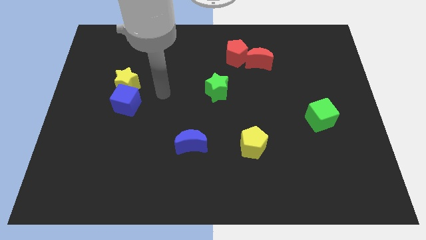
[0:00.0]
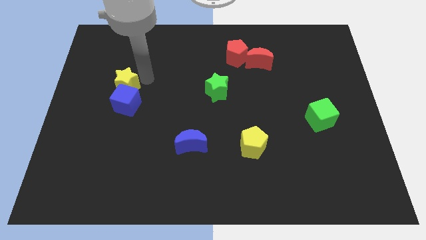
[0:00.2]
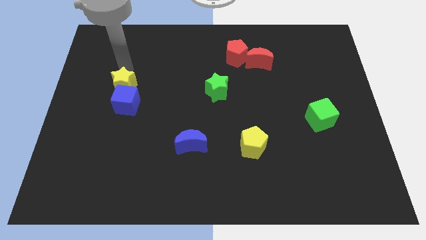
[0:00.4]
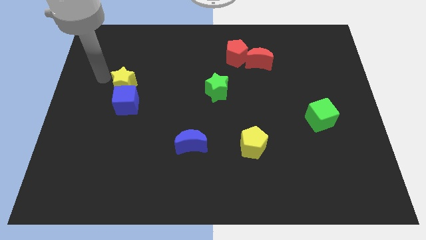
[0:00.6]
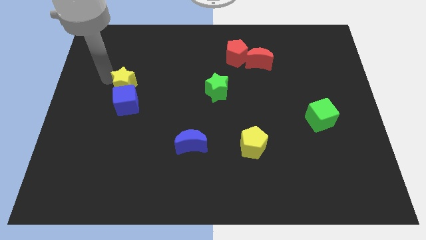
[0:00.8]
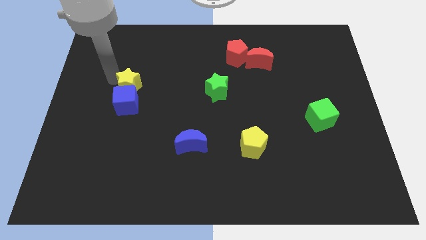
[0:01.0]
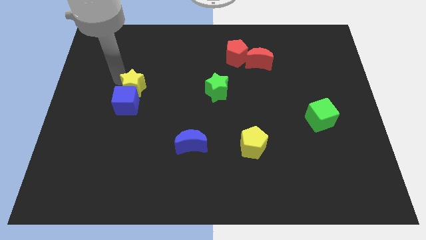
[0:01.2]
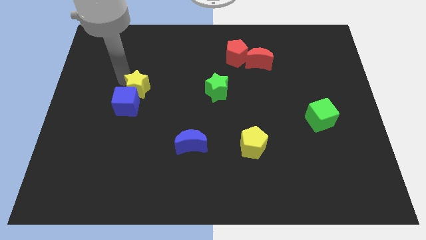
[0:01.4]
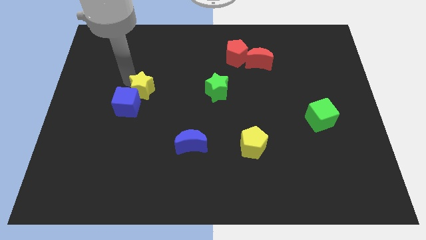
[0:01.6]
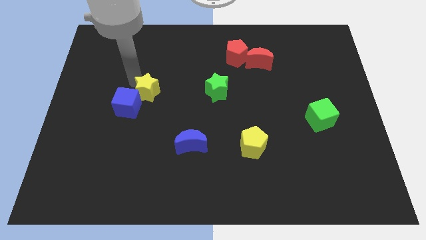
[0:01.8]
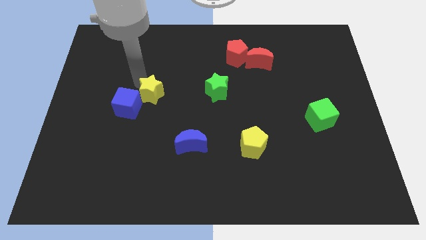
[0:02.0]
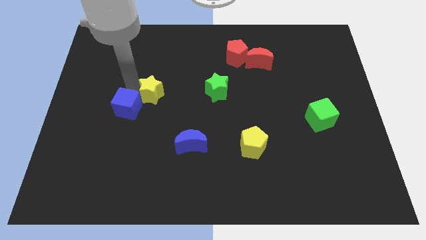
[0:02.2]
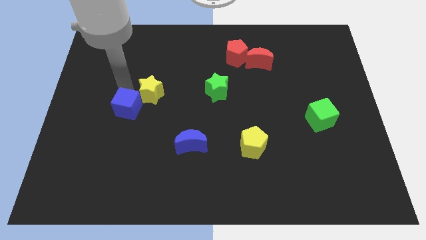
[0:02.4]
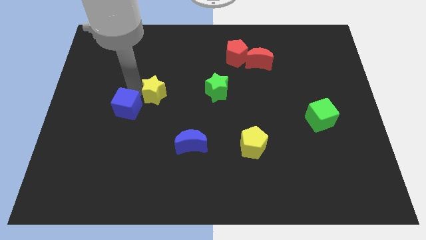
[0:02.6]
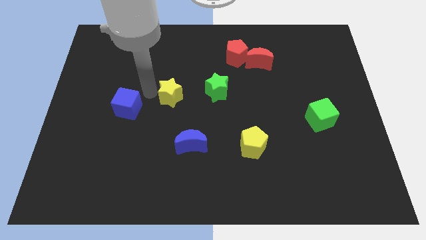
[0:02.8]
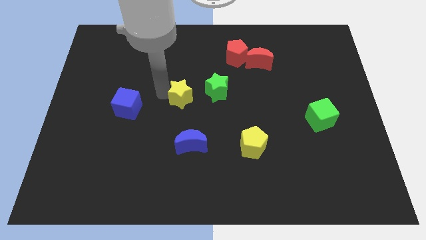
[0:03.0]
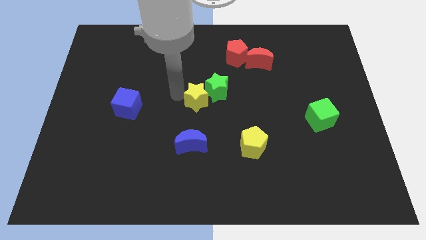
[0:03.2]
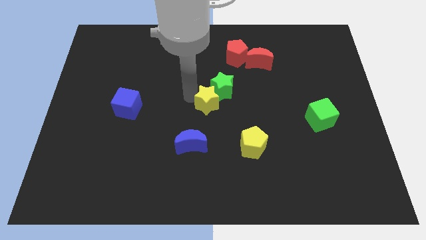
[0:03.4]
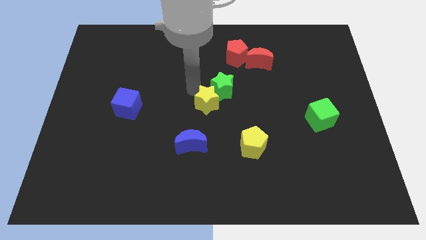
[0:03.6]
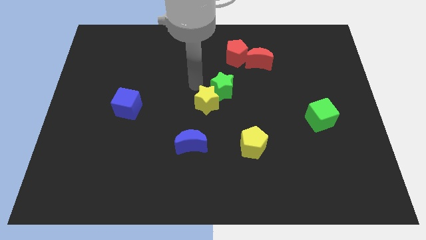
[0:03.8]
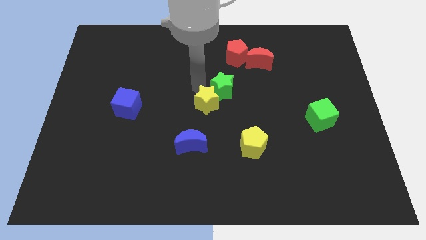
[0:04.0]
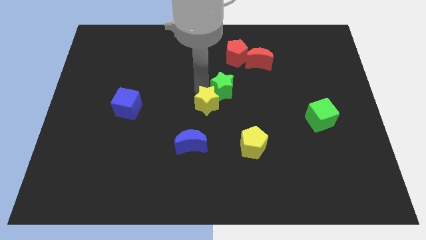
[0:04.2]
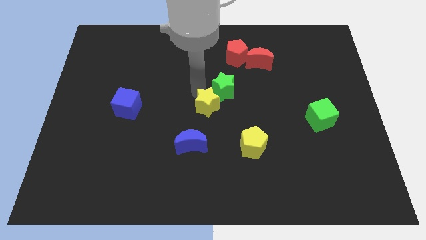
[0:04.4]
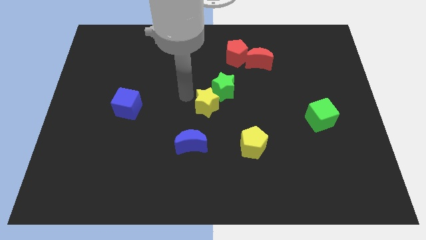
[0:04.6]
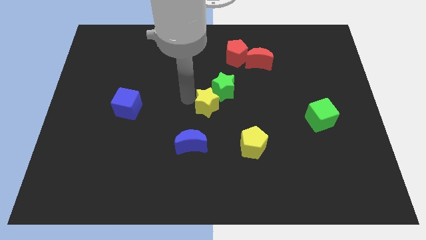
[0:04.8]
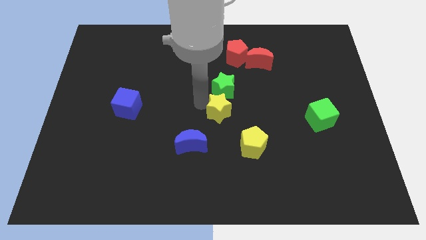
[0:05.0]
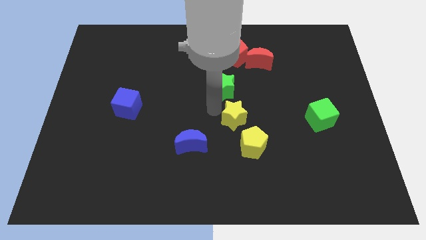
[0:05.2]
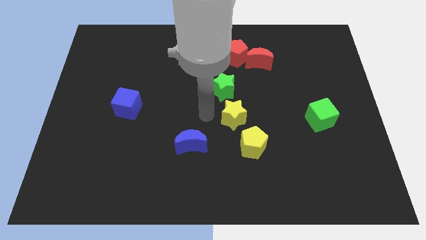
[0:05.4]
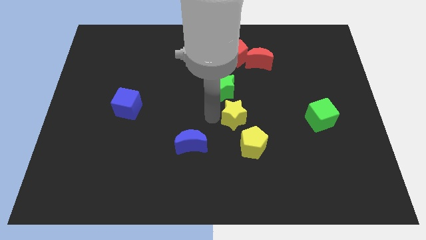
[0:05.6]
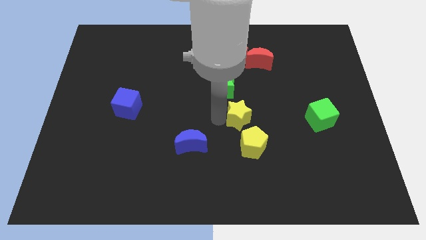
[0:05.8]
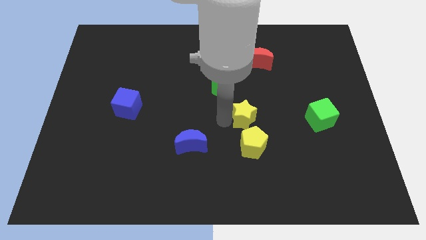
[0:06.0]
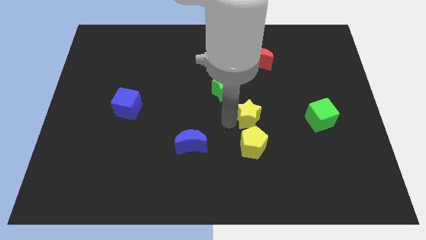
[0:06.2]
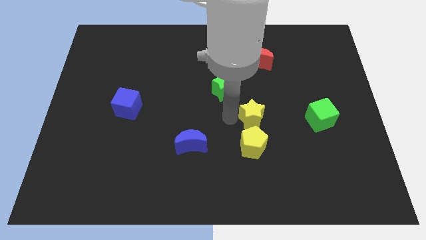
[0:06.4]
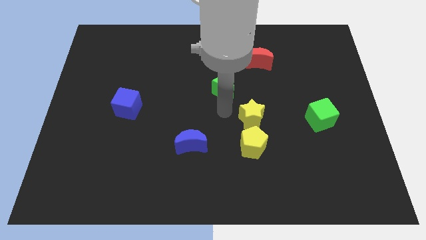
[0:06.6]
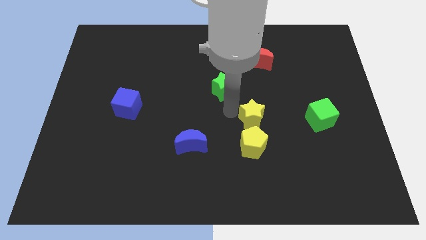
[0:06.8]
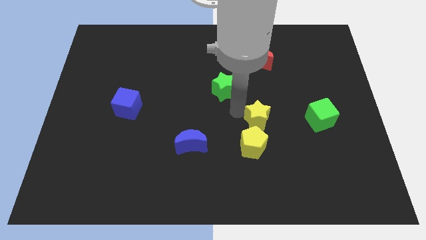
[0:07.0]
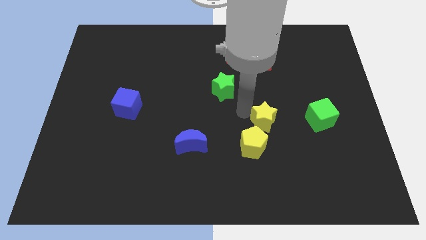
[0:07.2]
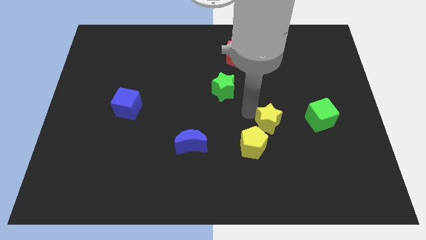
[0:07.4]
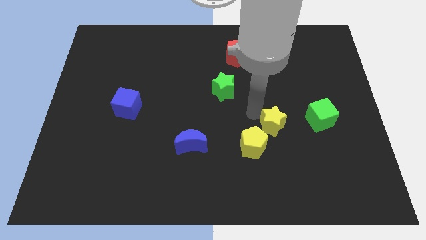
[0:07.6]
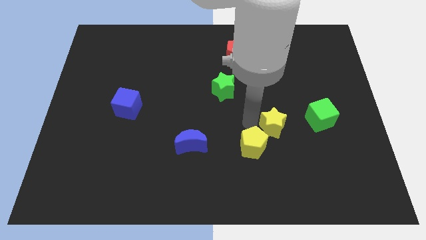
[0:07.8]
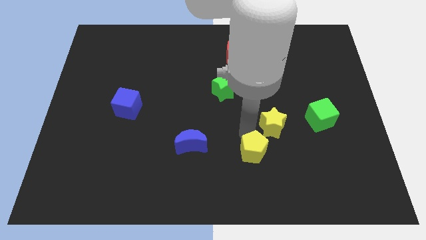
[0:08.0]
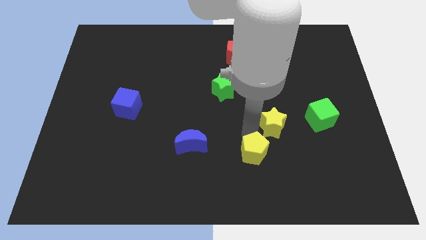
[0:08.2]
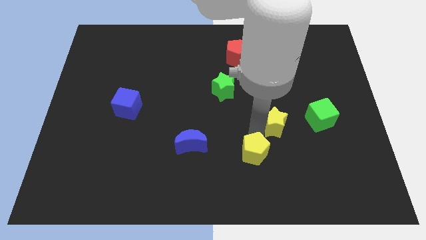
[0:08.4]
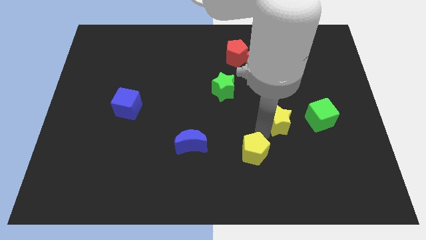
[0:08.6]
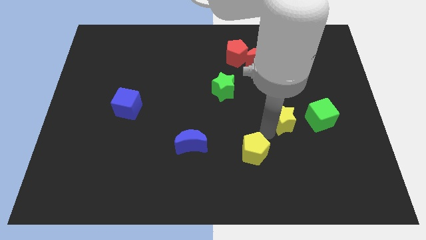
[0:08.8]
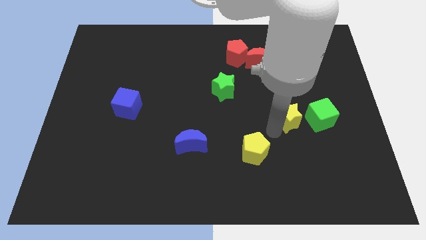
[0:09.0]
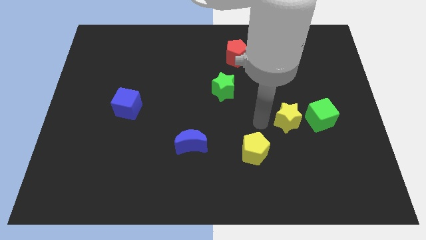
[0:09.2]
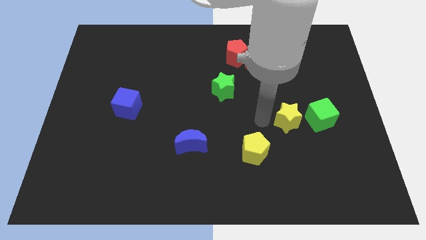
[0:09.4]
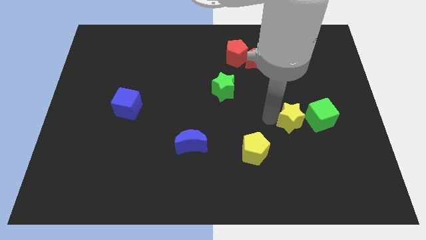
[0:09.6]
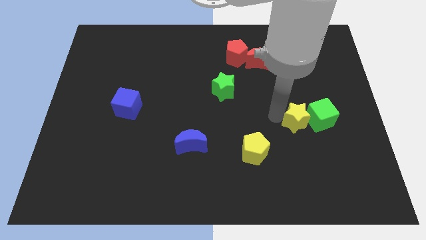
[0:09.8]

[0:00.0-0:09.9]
push the yellow star next to the green cube

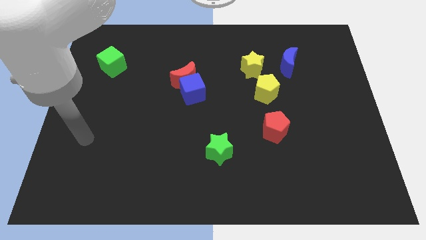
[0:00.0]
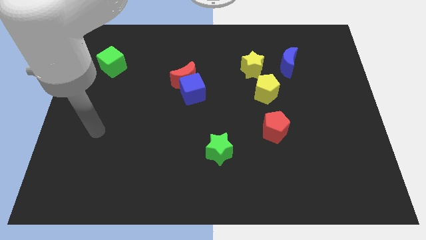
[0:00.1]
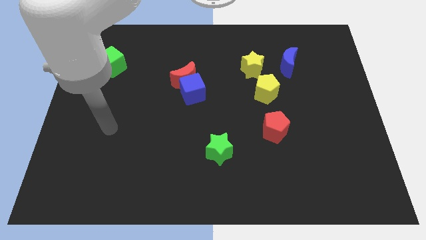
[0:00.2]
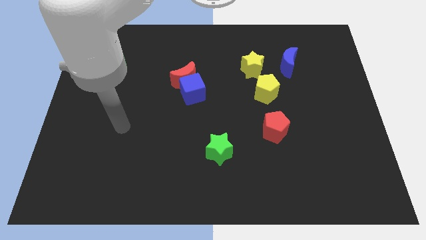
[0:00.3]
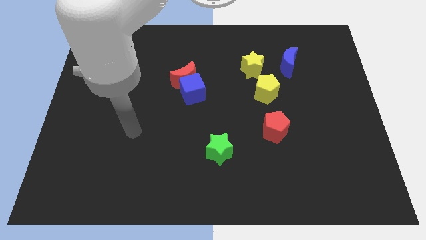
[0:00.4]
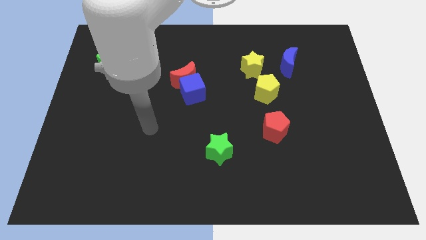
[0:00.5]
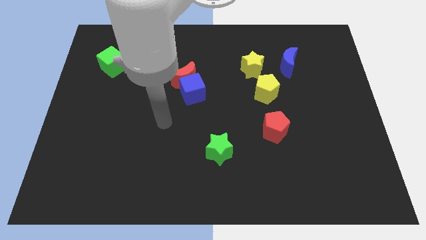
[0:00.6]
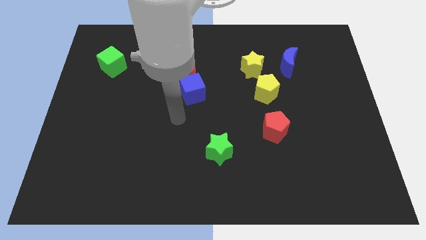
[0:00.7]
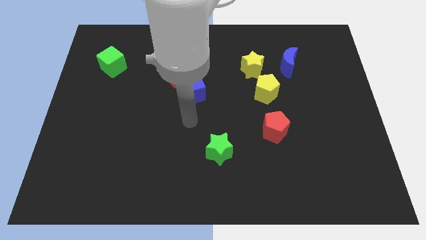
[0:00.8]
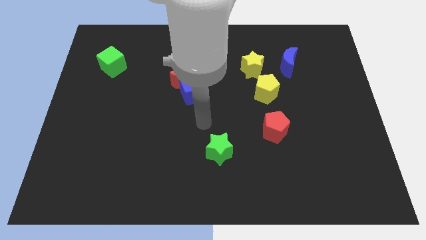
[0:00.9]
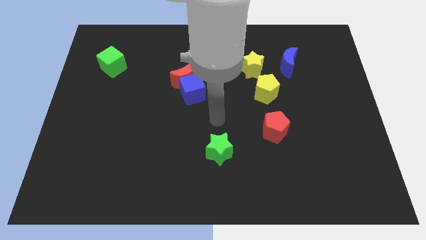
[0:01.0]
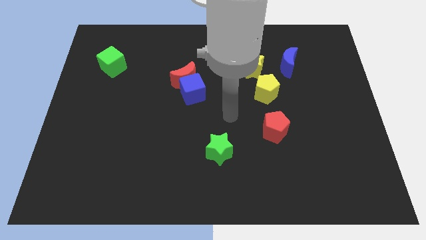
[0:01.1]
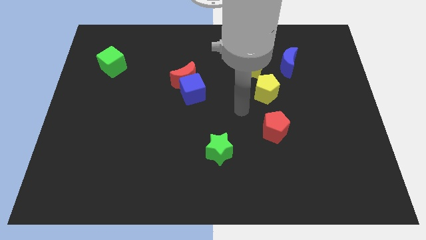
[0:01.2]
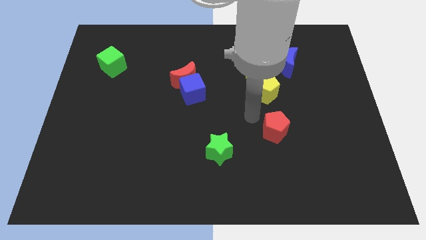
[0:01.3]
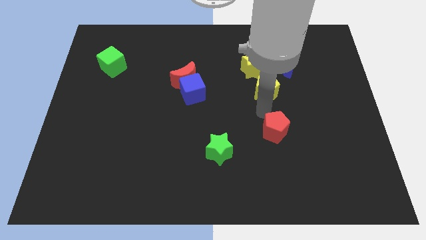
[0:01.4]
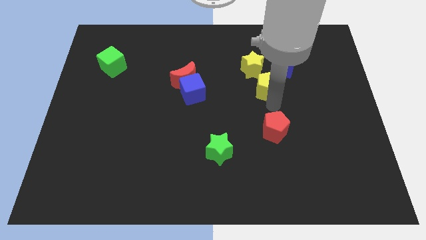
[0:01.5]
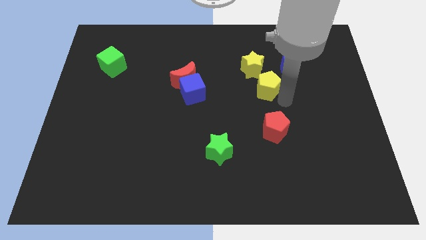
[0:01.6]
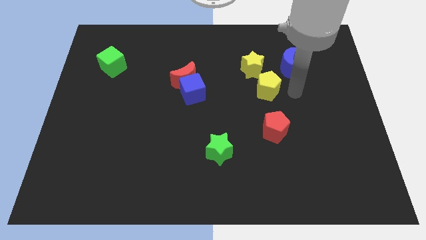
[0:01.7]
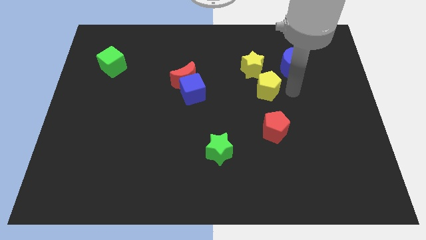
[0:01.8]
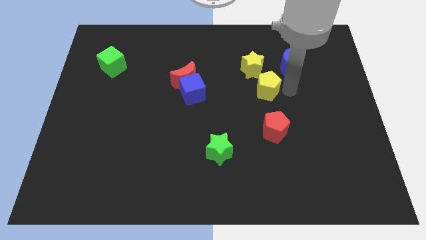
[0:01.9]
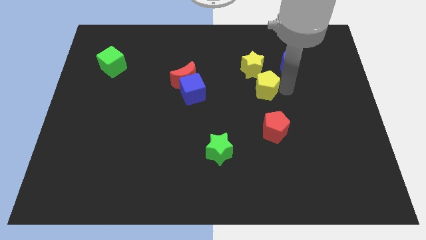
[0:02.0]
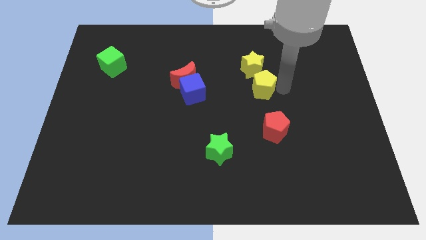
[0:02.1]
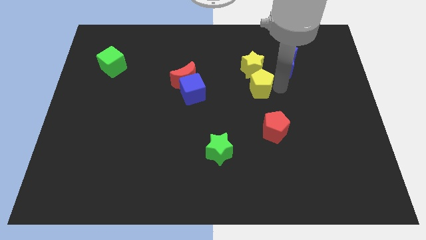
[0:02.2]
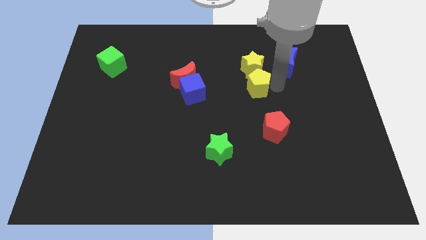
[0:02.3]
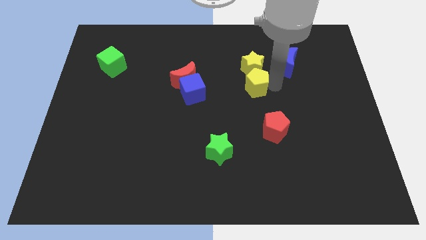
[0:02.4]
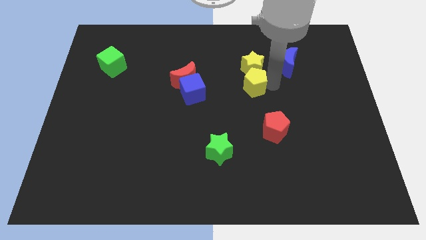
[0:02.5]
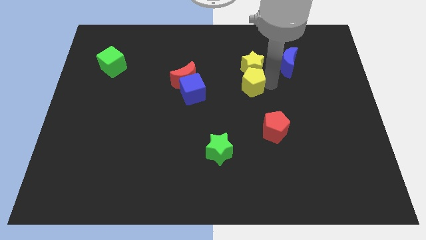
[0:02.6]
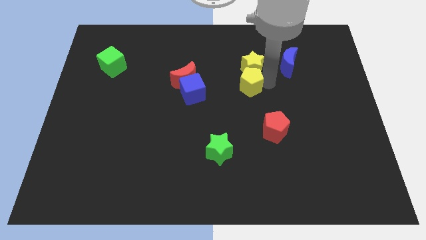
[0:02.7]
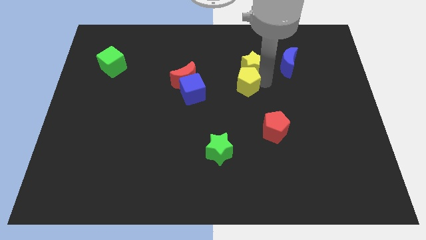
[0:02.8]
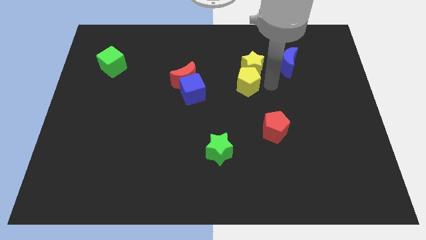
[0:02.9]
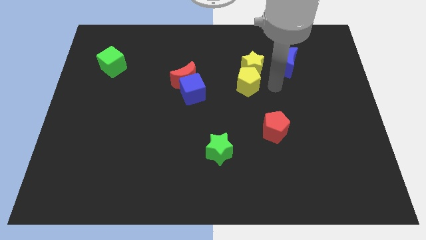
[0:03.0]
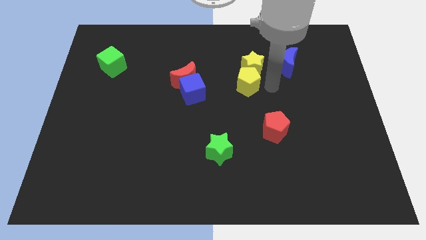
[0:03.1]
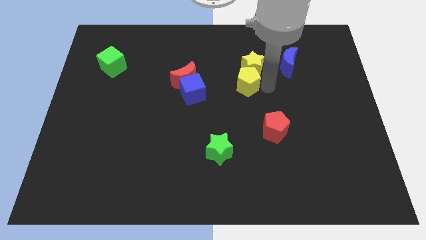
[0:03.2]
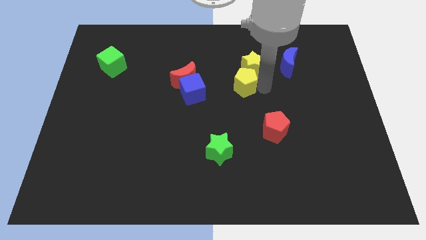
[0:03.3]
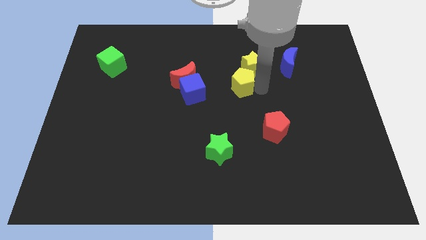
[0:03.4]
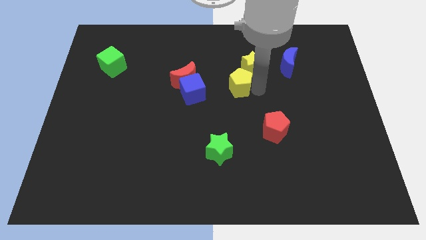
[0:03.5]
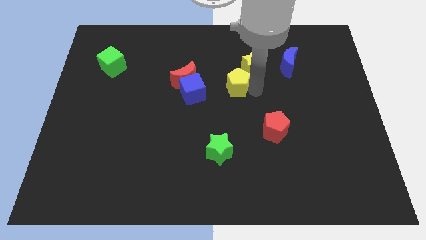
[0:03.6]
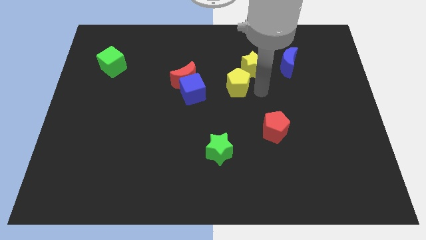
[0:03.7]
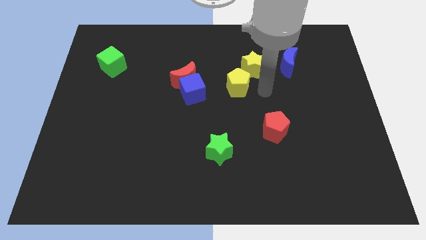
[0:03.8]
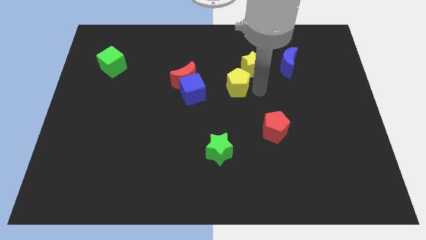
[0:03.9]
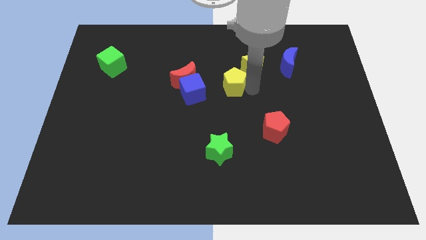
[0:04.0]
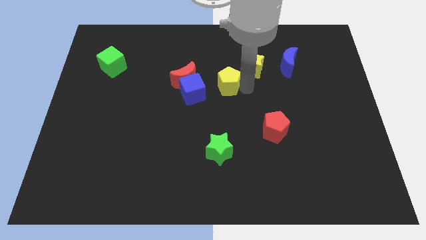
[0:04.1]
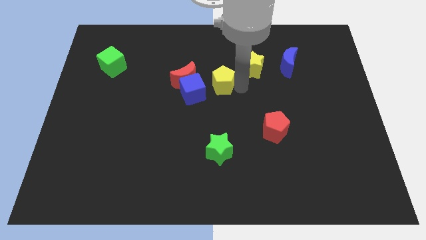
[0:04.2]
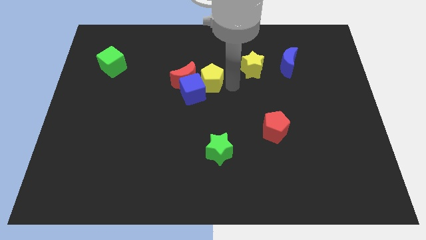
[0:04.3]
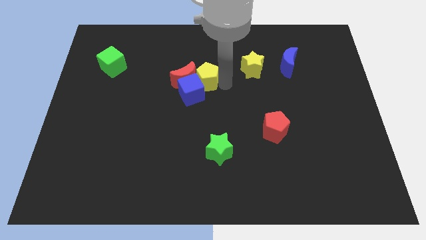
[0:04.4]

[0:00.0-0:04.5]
move the yellow pentagon to the red moon
